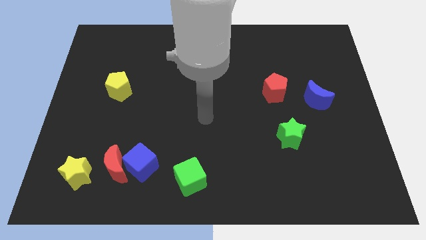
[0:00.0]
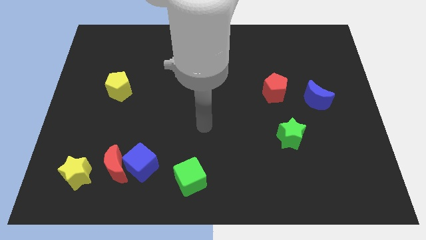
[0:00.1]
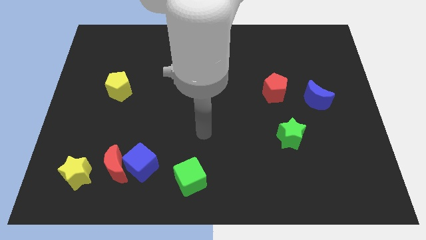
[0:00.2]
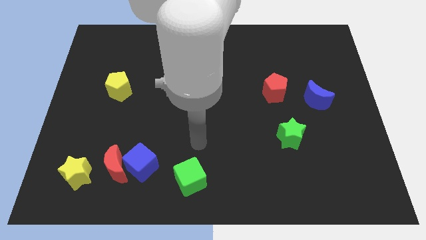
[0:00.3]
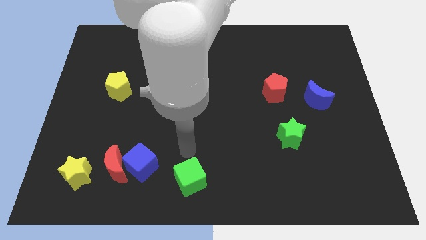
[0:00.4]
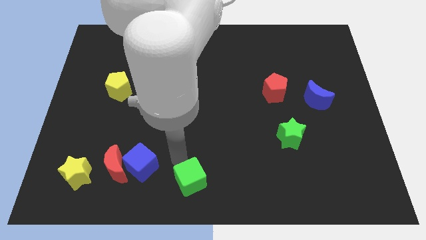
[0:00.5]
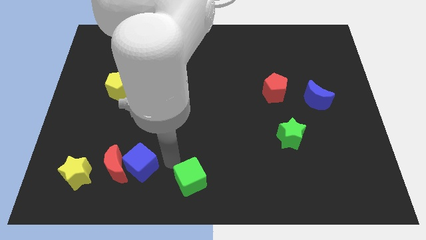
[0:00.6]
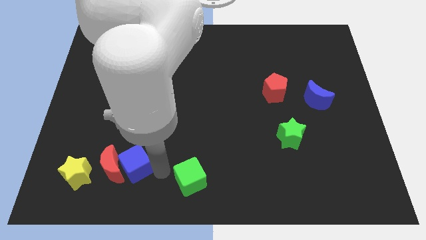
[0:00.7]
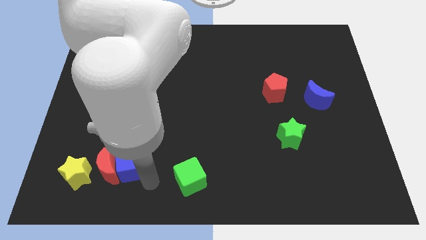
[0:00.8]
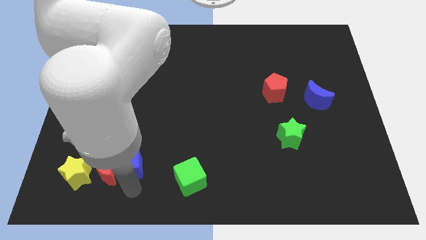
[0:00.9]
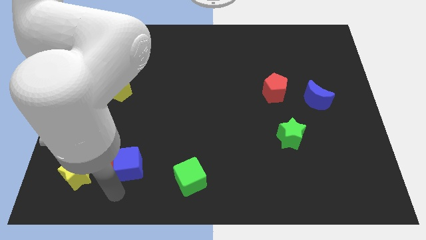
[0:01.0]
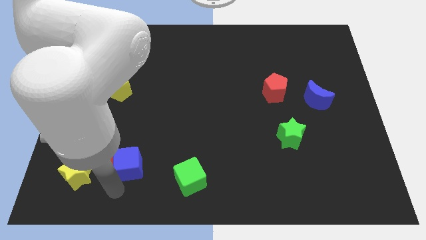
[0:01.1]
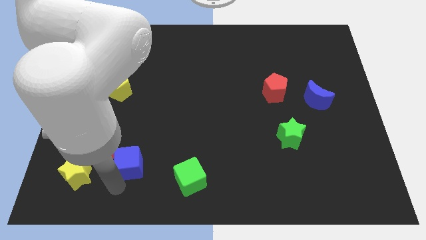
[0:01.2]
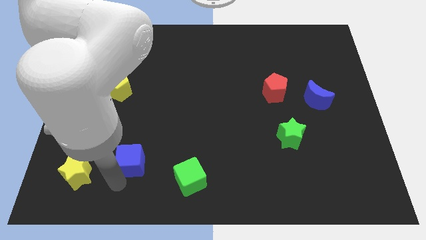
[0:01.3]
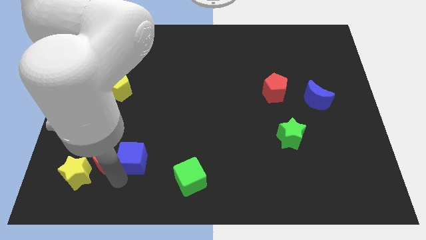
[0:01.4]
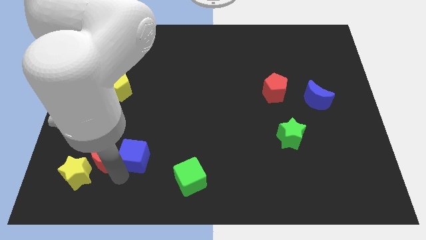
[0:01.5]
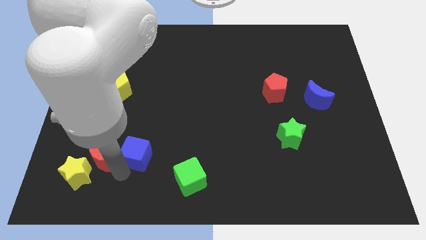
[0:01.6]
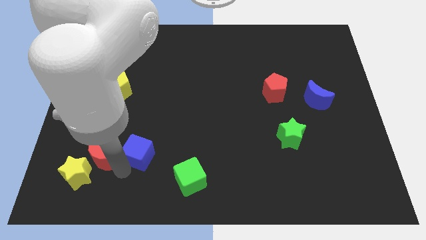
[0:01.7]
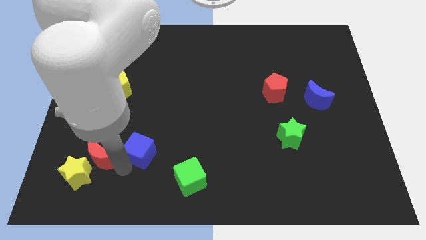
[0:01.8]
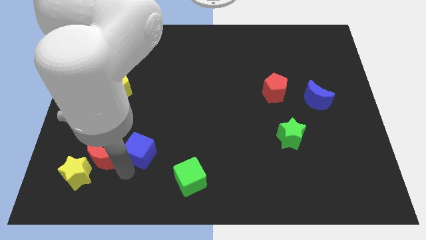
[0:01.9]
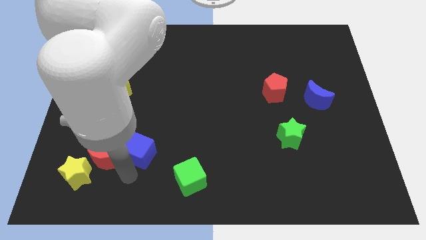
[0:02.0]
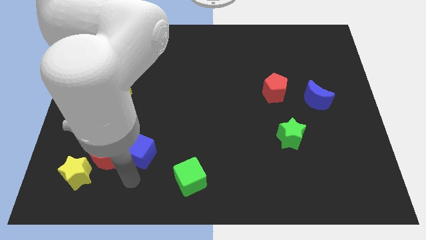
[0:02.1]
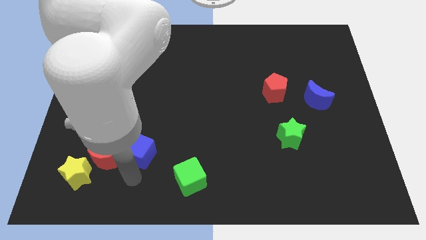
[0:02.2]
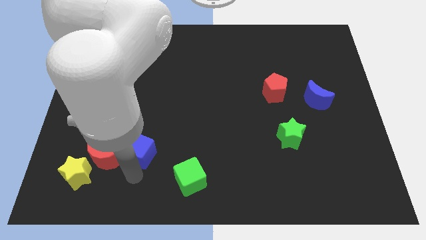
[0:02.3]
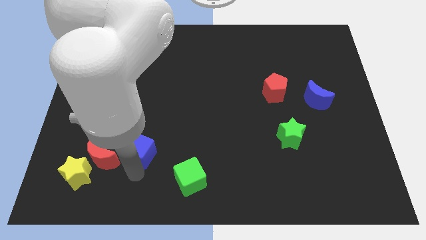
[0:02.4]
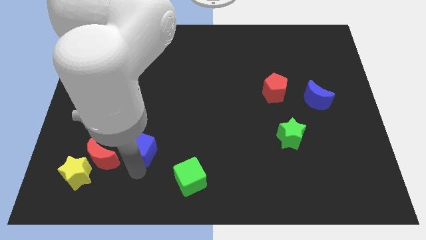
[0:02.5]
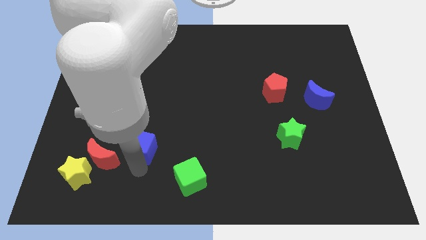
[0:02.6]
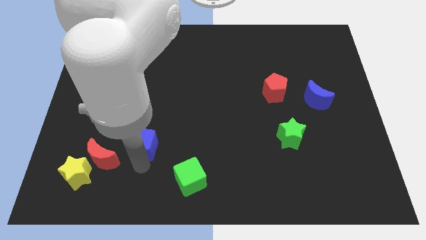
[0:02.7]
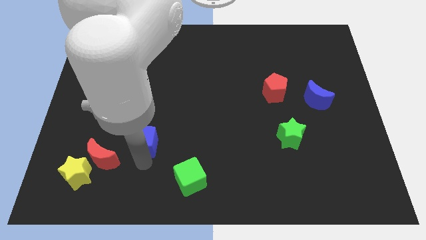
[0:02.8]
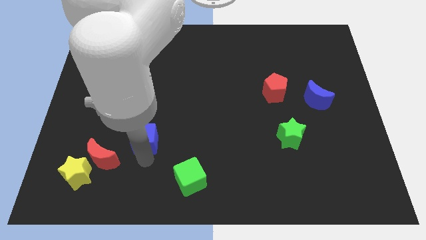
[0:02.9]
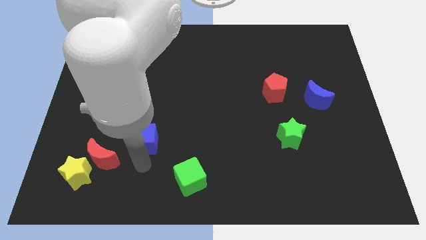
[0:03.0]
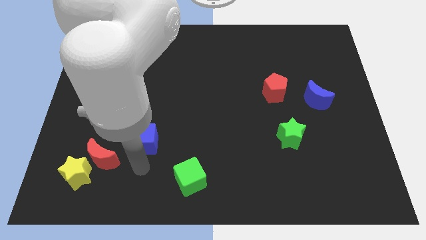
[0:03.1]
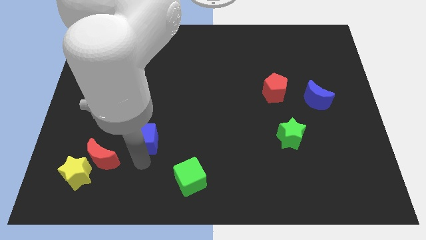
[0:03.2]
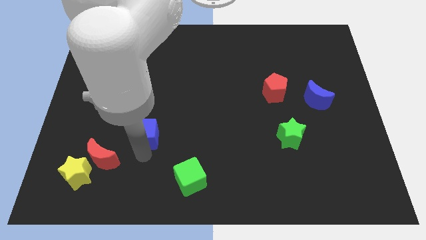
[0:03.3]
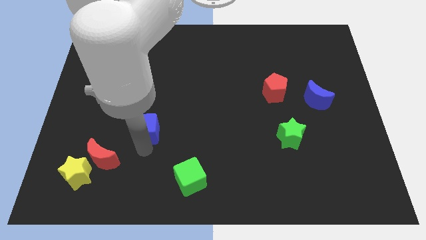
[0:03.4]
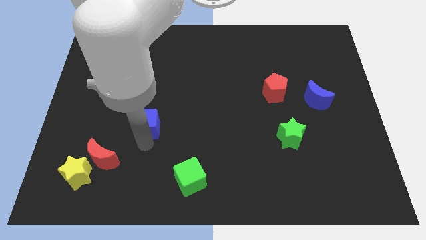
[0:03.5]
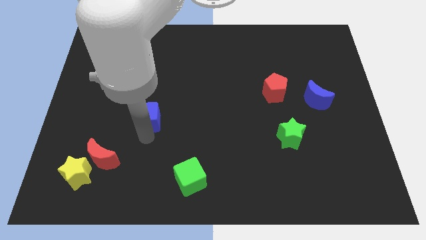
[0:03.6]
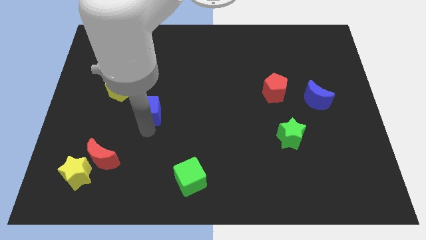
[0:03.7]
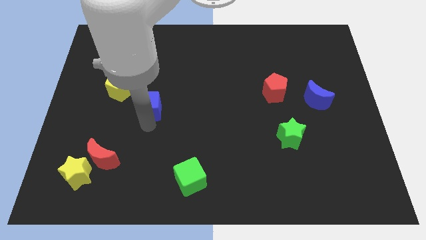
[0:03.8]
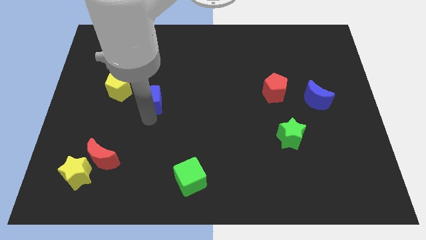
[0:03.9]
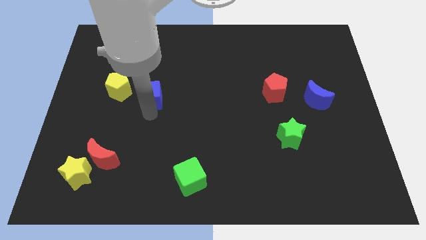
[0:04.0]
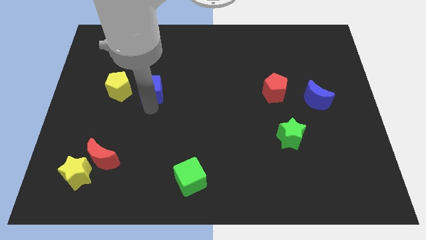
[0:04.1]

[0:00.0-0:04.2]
push the blue cube up

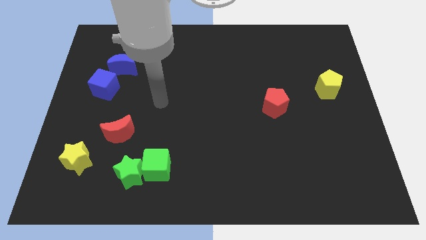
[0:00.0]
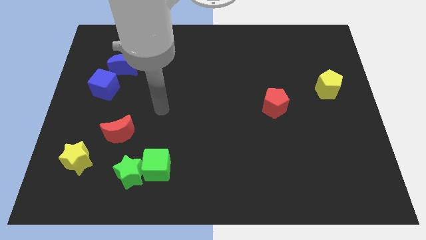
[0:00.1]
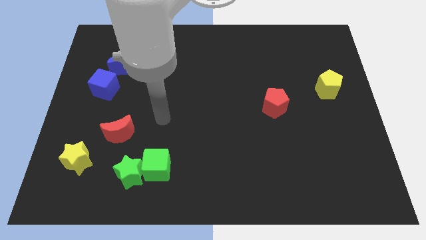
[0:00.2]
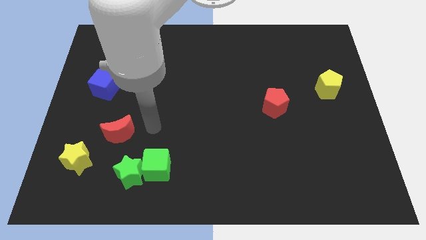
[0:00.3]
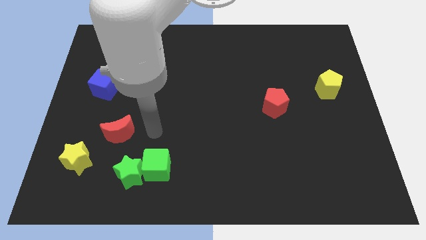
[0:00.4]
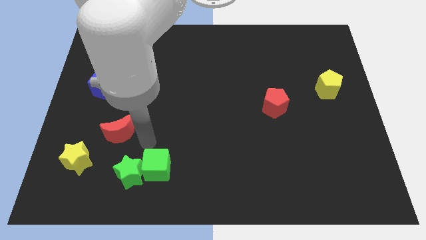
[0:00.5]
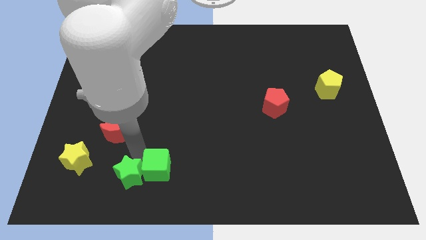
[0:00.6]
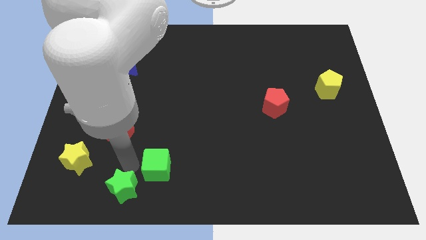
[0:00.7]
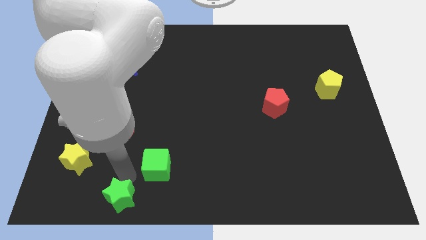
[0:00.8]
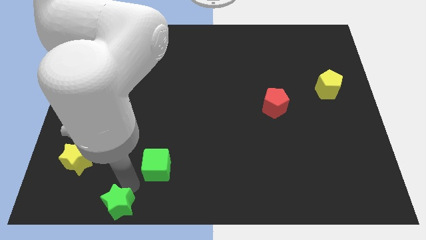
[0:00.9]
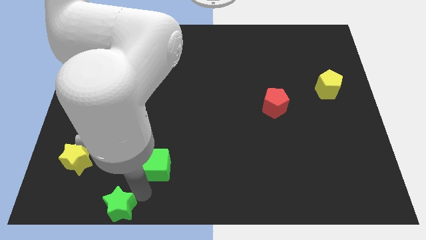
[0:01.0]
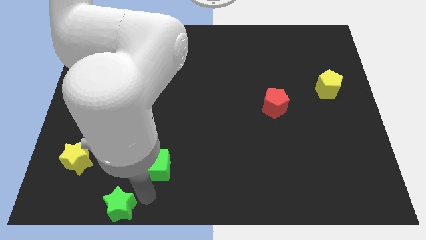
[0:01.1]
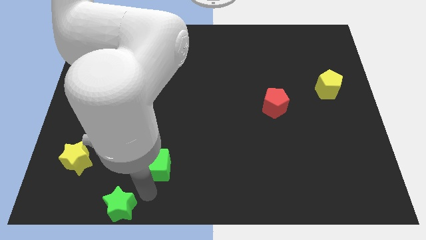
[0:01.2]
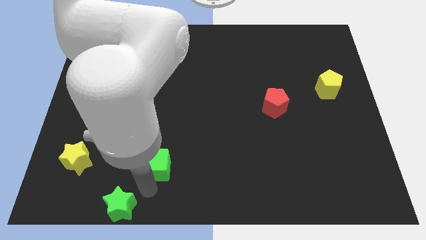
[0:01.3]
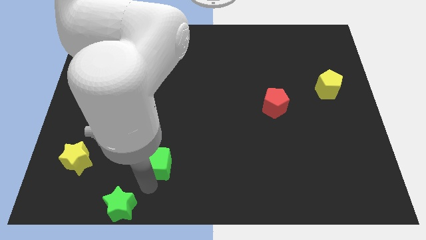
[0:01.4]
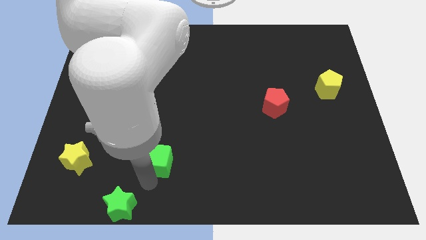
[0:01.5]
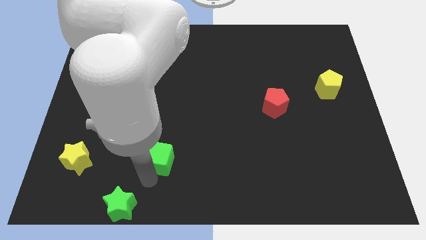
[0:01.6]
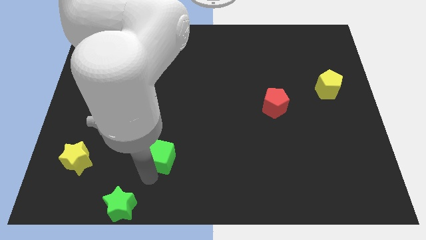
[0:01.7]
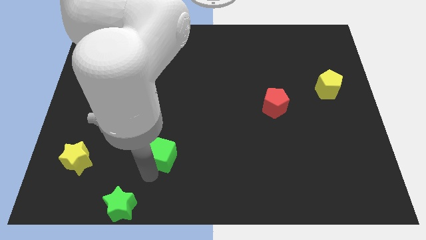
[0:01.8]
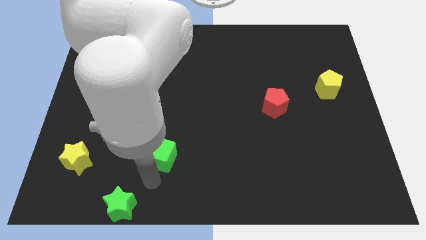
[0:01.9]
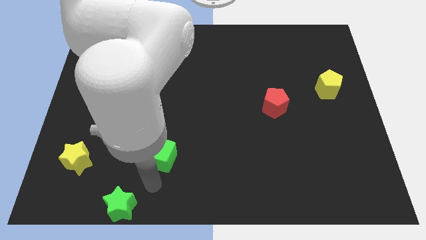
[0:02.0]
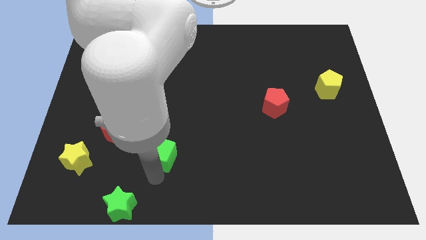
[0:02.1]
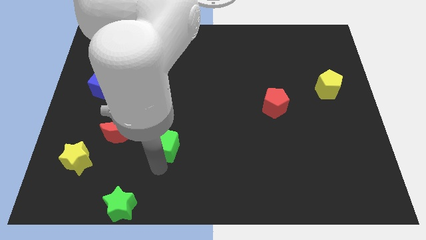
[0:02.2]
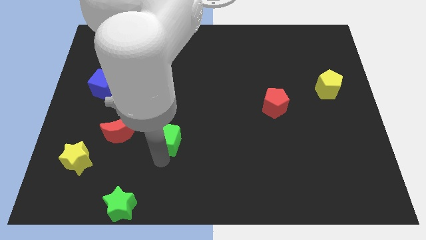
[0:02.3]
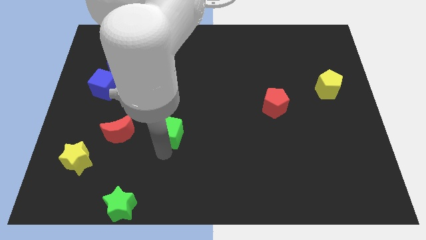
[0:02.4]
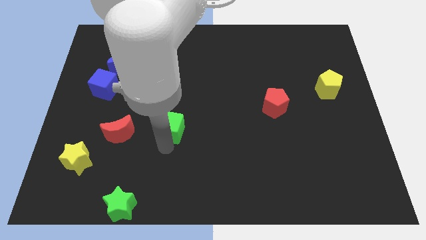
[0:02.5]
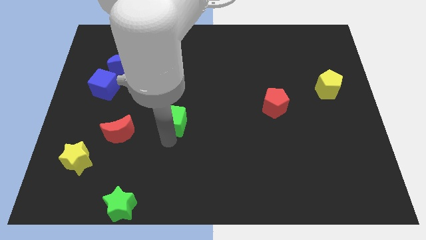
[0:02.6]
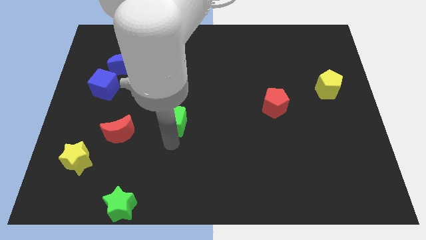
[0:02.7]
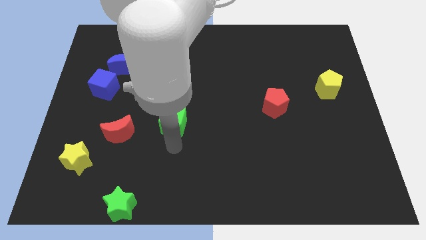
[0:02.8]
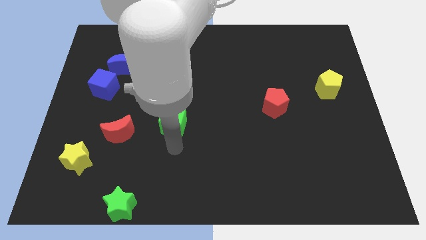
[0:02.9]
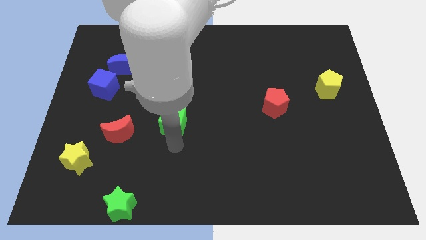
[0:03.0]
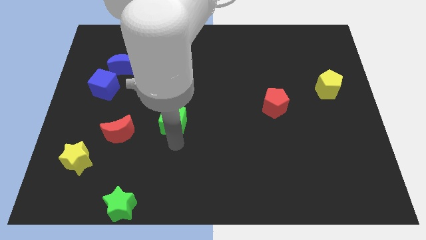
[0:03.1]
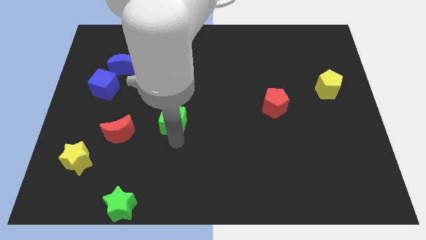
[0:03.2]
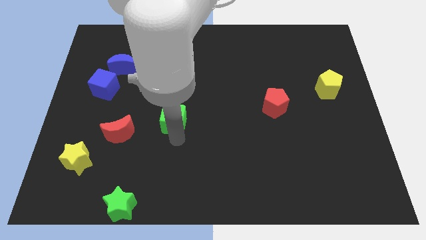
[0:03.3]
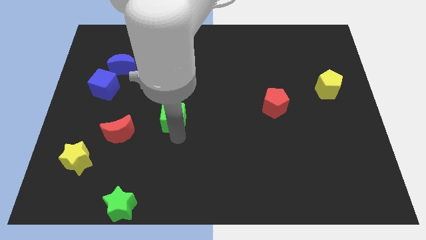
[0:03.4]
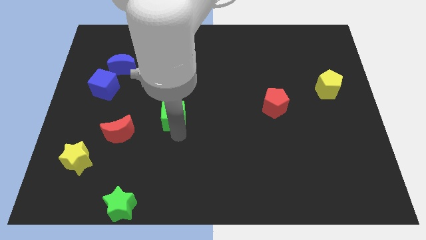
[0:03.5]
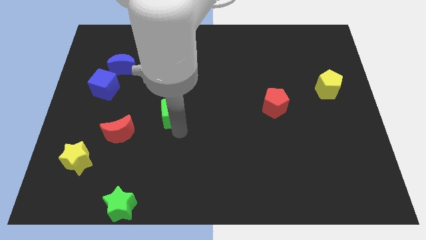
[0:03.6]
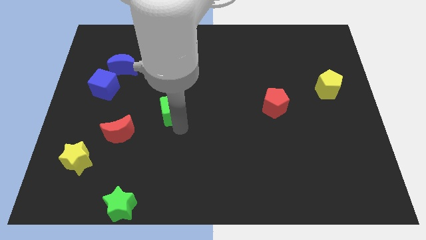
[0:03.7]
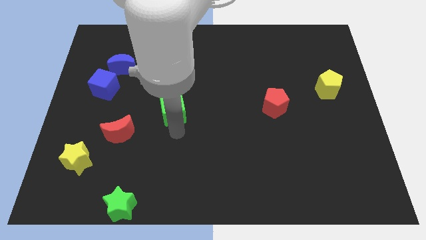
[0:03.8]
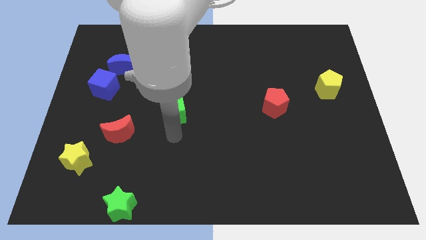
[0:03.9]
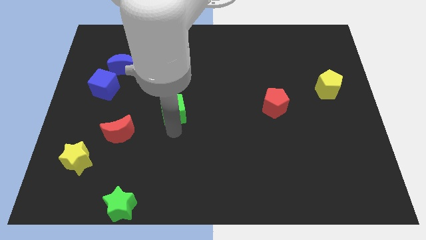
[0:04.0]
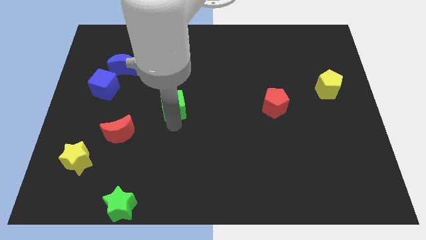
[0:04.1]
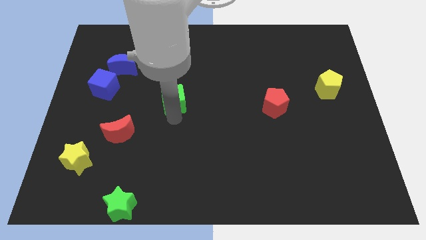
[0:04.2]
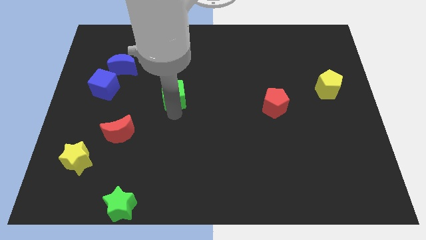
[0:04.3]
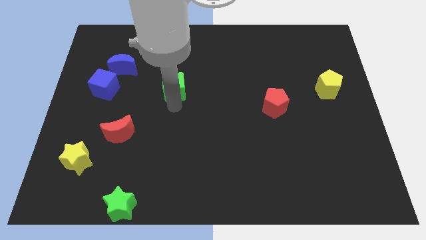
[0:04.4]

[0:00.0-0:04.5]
push the green cube up
